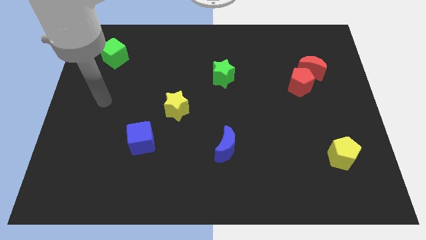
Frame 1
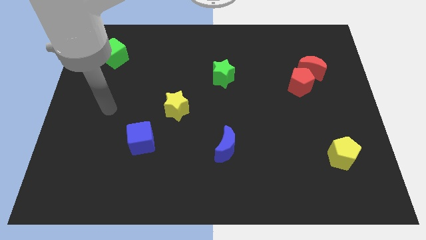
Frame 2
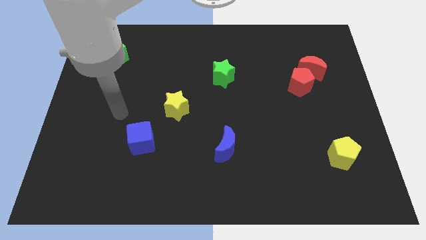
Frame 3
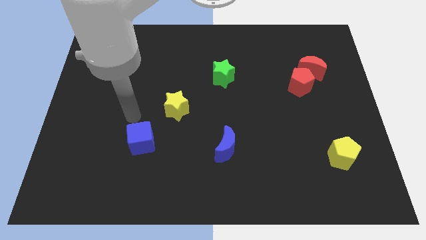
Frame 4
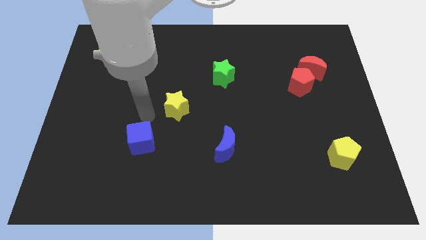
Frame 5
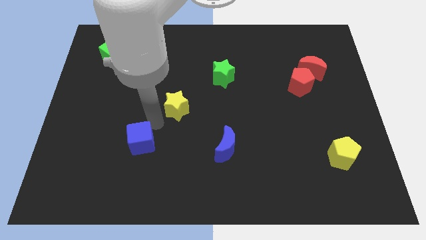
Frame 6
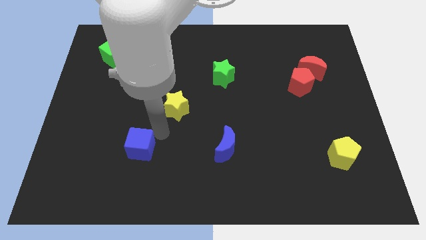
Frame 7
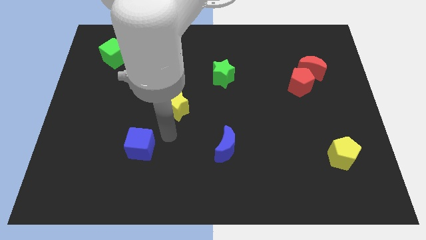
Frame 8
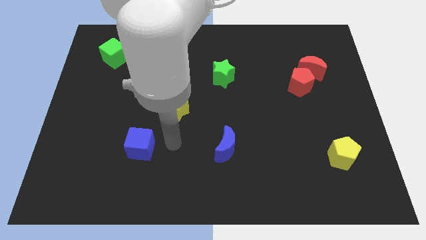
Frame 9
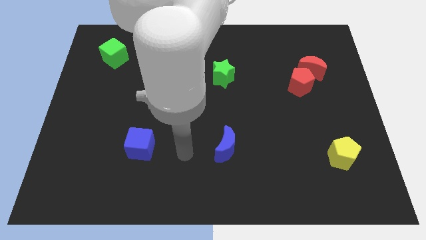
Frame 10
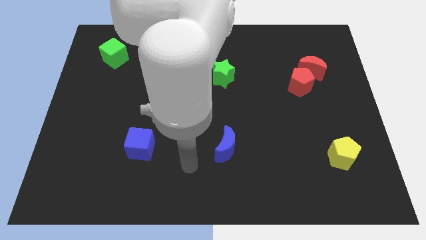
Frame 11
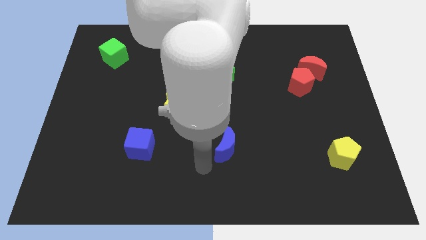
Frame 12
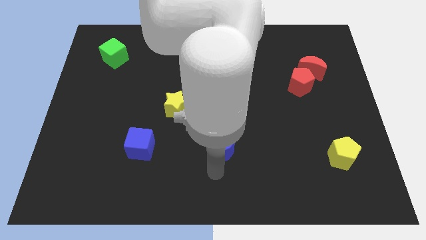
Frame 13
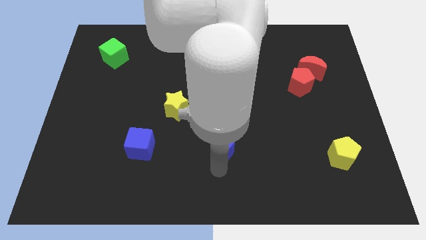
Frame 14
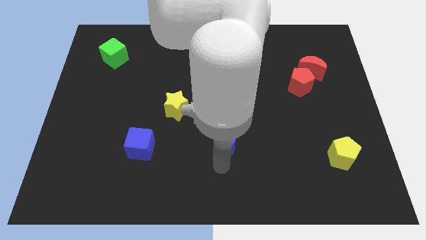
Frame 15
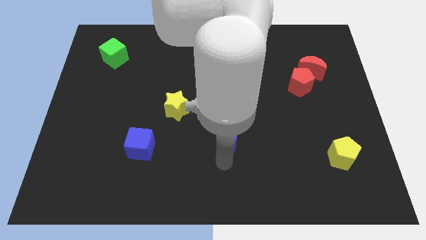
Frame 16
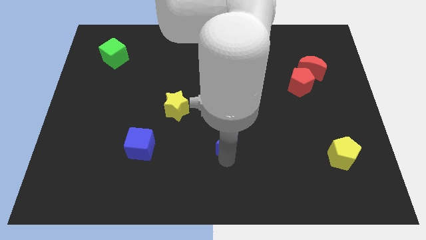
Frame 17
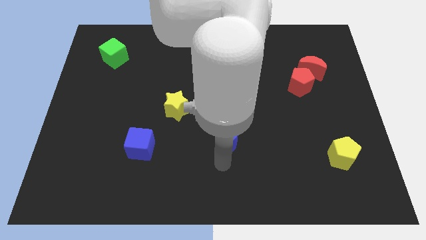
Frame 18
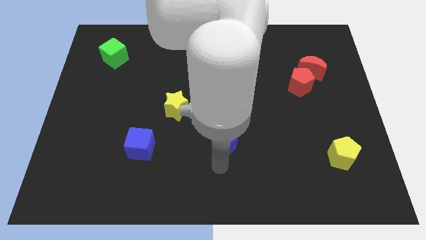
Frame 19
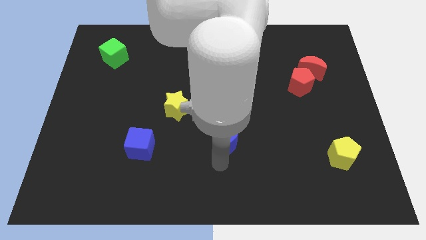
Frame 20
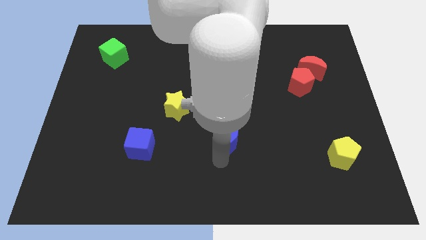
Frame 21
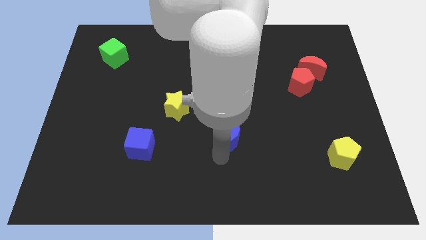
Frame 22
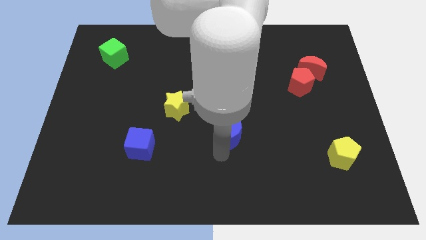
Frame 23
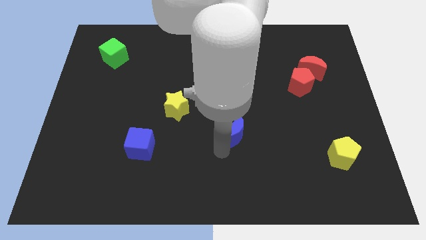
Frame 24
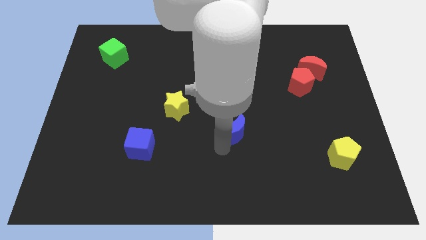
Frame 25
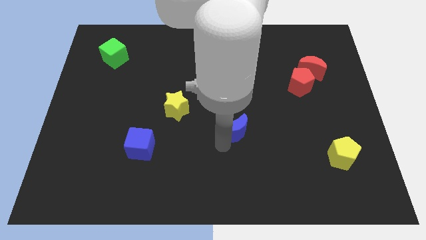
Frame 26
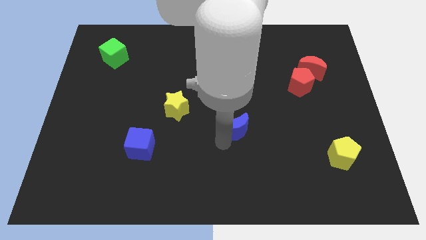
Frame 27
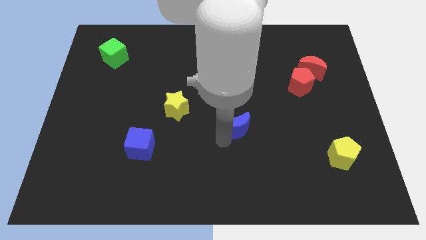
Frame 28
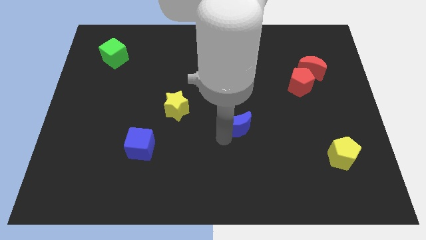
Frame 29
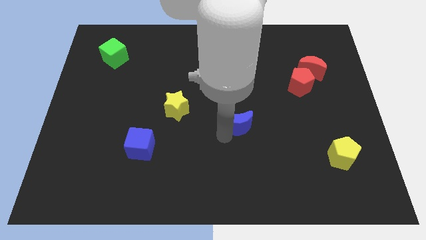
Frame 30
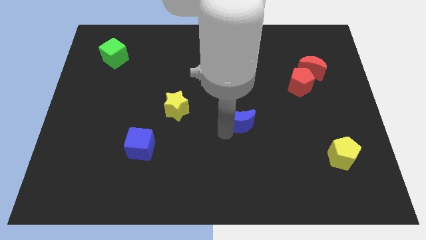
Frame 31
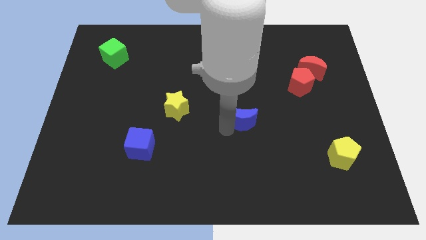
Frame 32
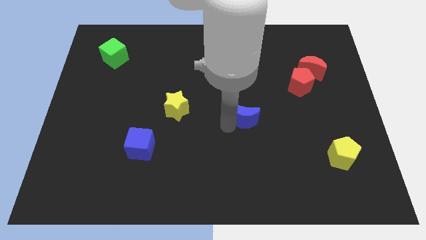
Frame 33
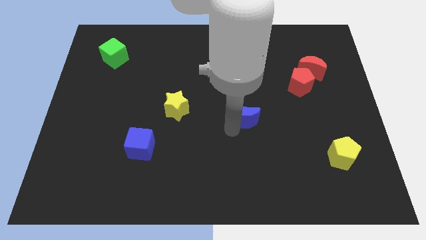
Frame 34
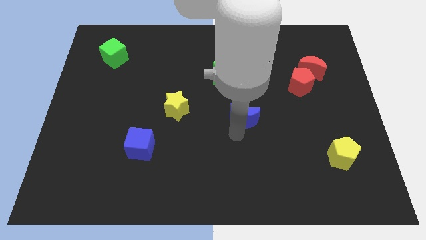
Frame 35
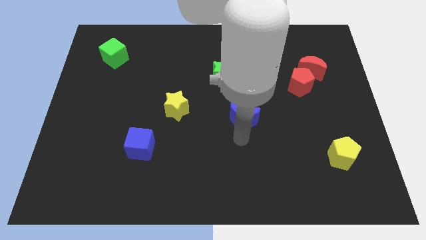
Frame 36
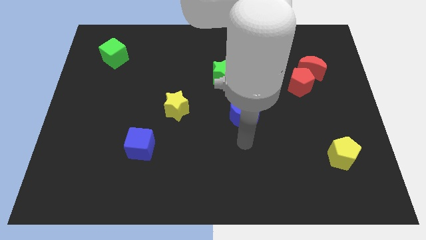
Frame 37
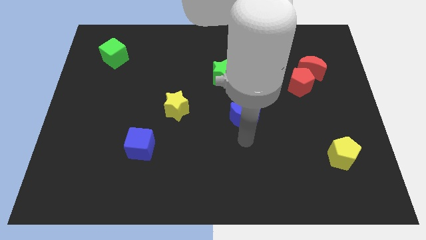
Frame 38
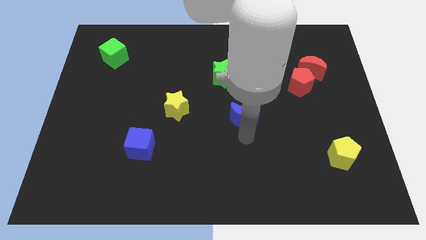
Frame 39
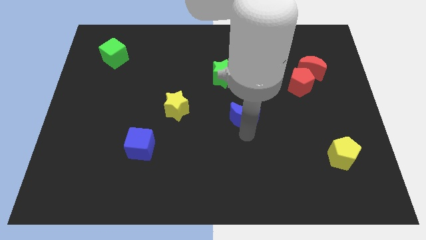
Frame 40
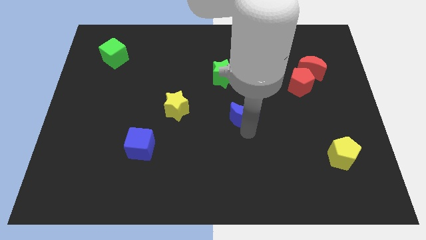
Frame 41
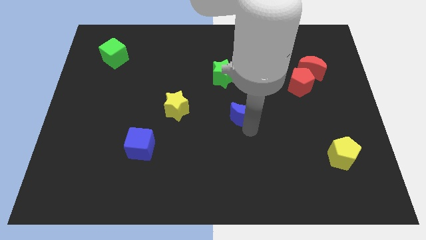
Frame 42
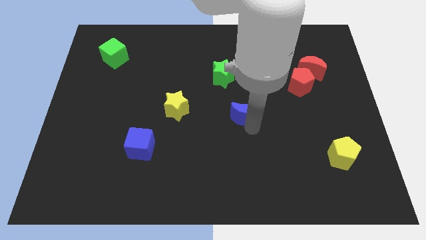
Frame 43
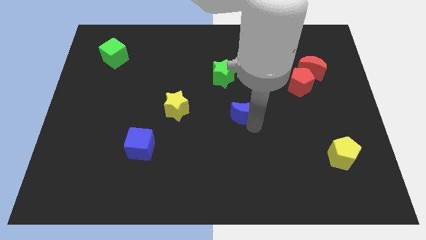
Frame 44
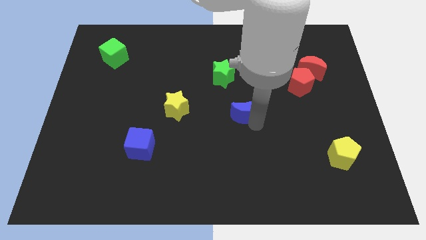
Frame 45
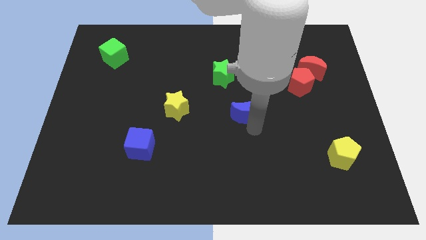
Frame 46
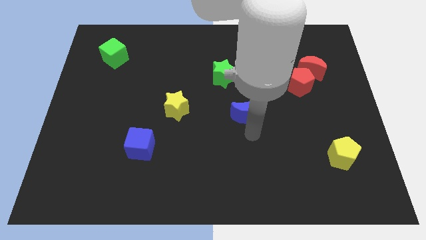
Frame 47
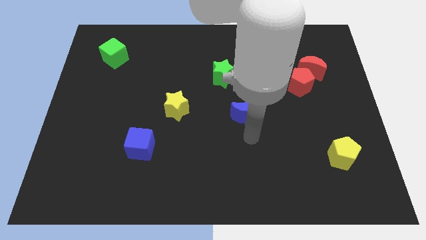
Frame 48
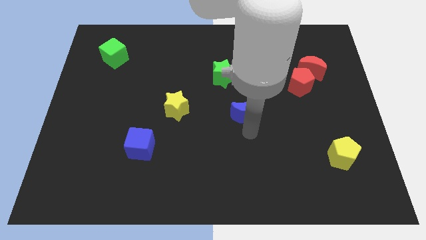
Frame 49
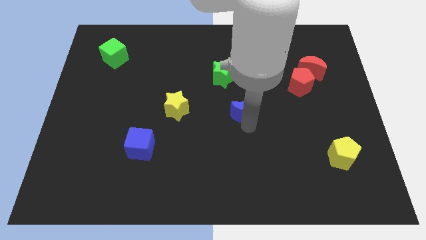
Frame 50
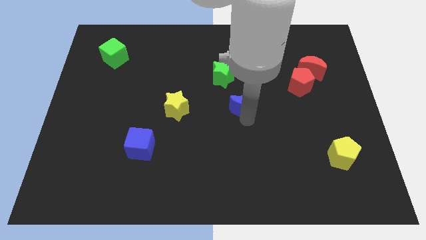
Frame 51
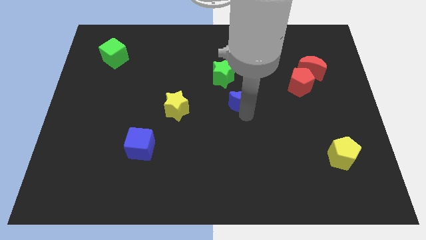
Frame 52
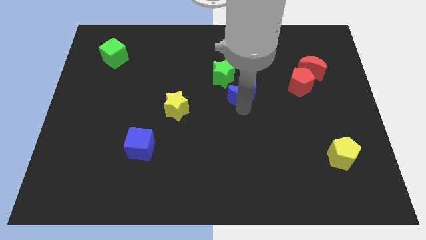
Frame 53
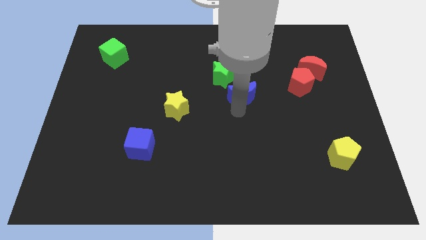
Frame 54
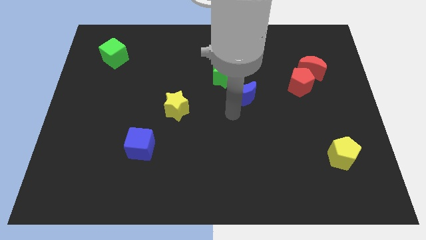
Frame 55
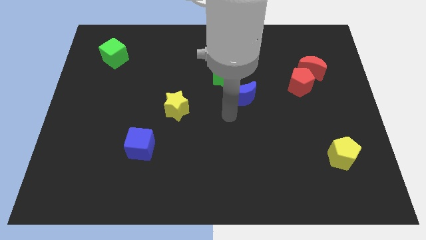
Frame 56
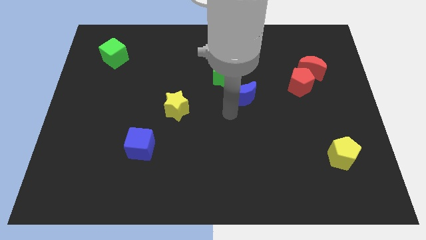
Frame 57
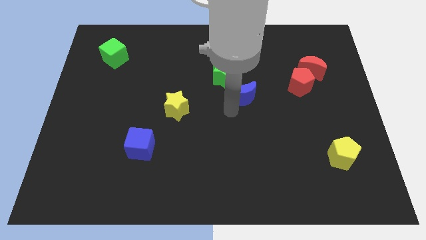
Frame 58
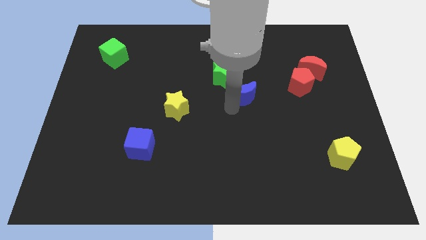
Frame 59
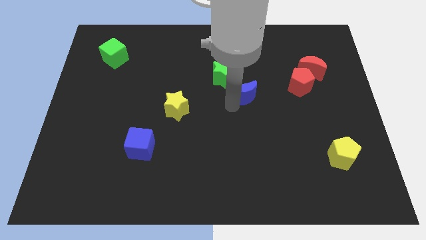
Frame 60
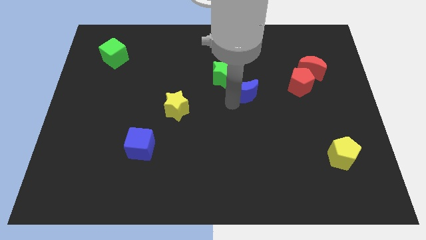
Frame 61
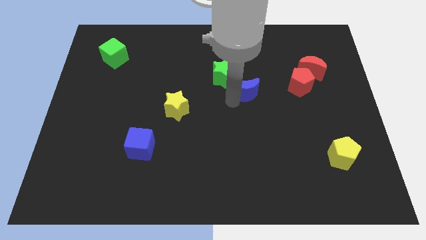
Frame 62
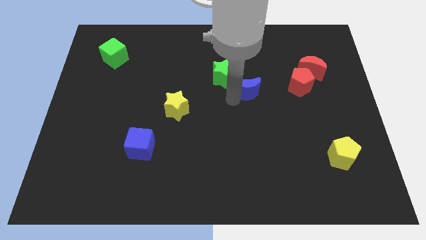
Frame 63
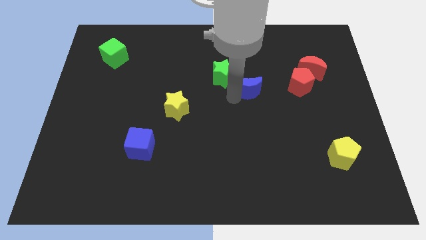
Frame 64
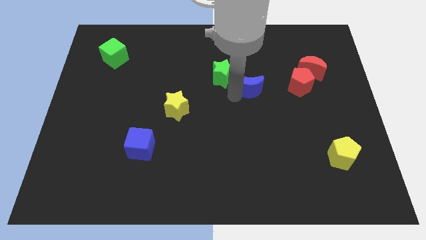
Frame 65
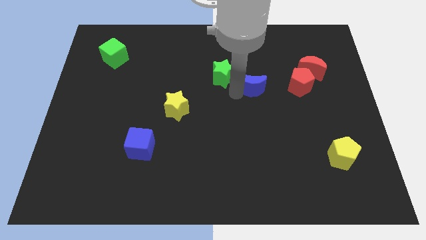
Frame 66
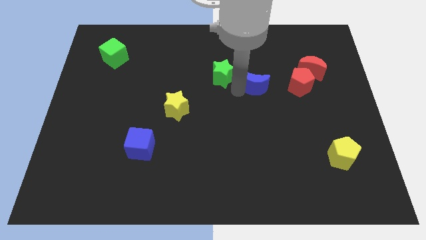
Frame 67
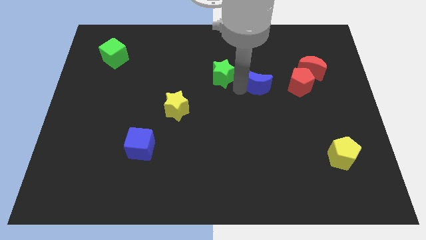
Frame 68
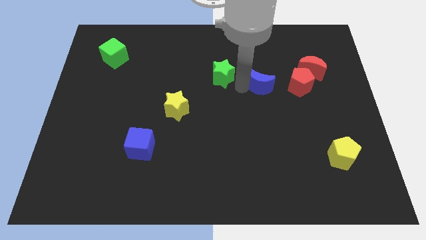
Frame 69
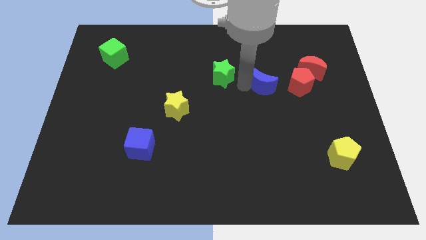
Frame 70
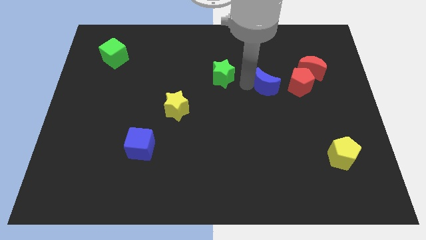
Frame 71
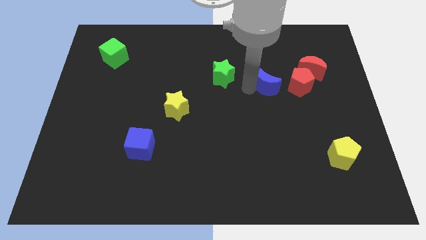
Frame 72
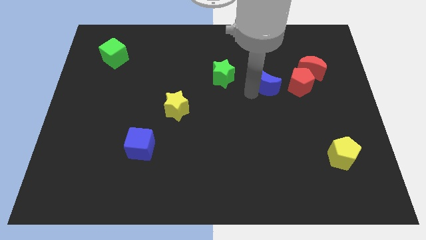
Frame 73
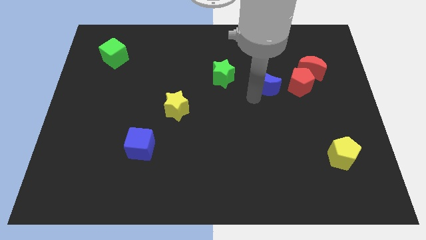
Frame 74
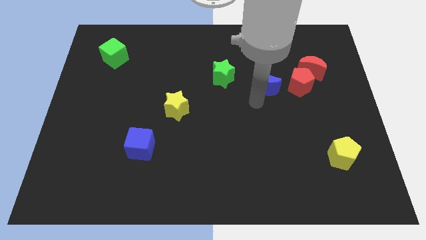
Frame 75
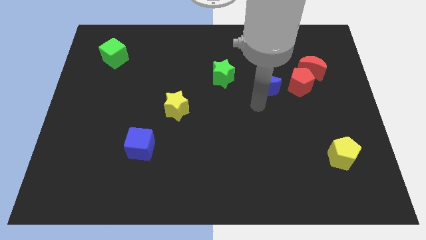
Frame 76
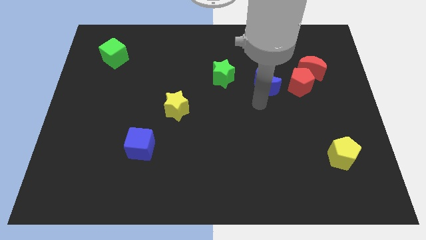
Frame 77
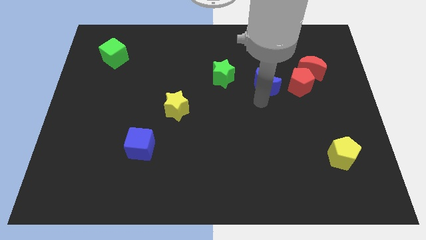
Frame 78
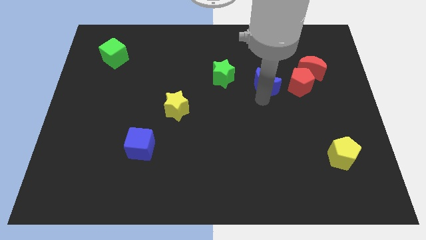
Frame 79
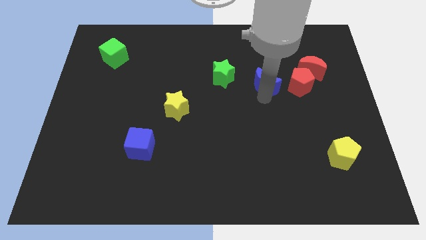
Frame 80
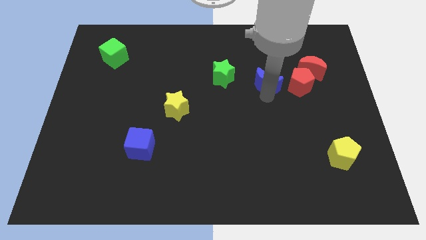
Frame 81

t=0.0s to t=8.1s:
move the blue moon to the left side of the red moon
